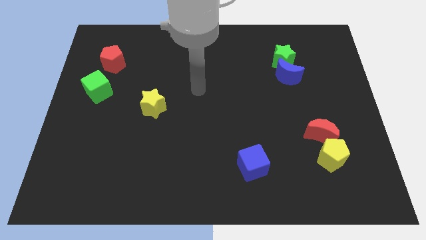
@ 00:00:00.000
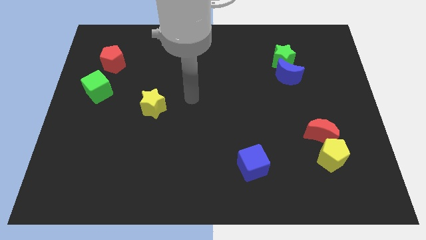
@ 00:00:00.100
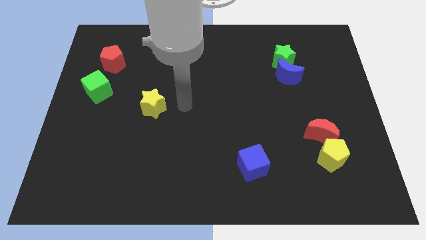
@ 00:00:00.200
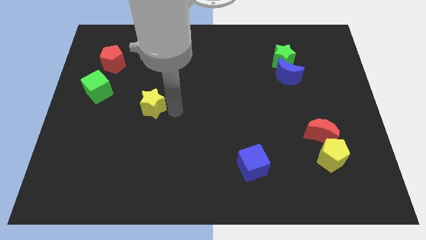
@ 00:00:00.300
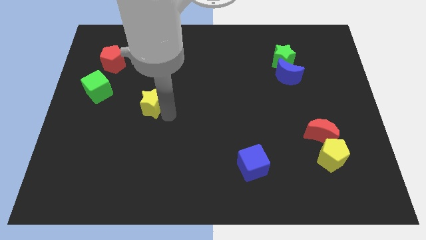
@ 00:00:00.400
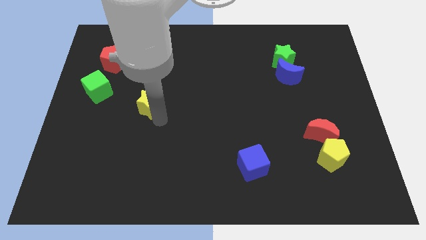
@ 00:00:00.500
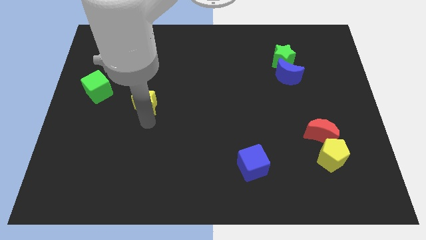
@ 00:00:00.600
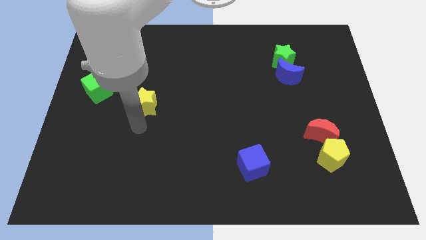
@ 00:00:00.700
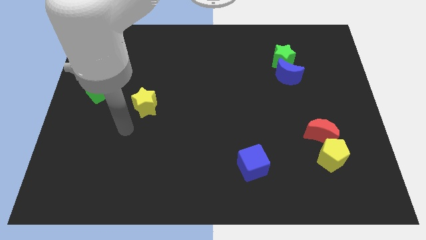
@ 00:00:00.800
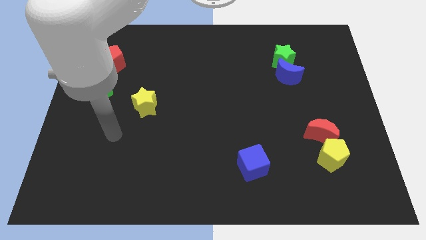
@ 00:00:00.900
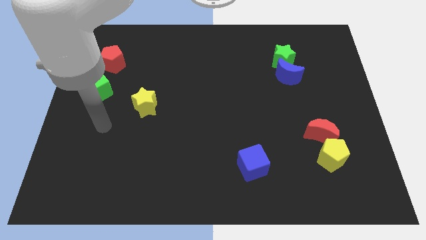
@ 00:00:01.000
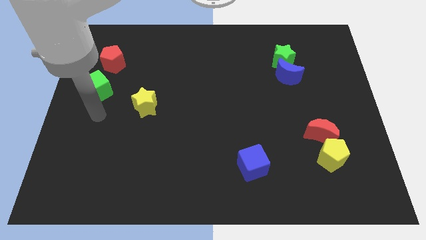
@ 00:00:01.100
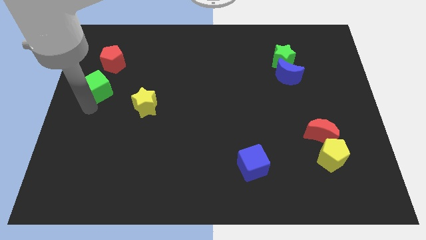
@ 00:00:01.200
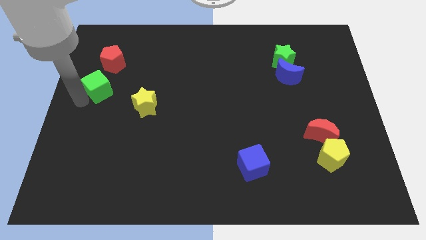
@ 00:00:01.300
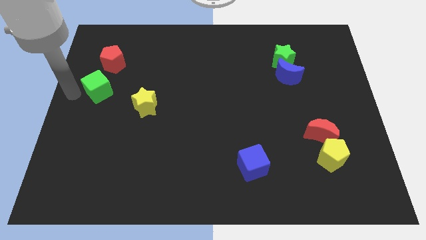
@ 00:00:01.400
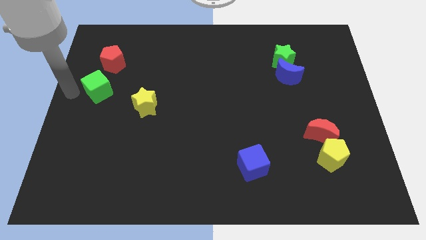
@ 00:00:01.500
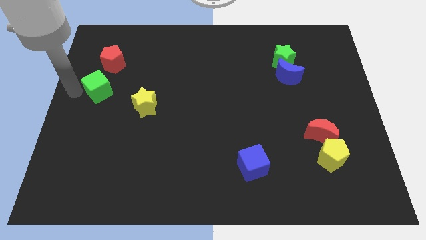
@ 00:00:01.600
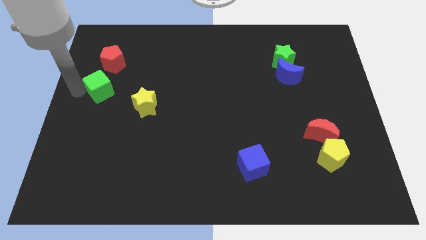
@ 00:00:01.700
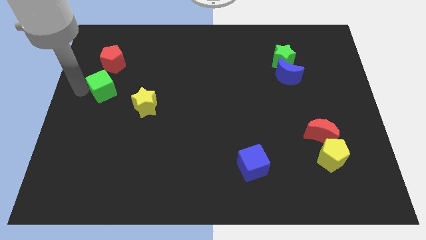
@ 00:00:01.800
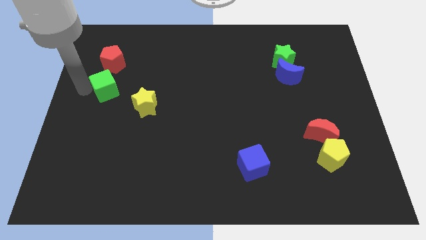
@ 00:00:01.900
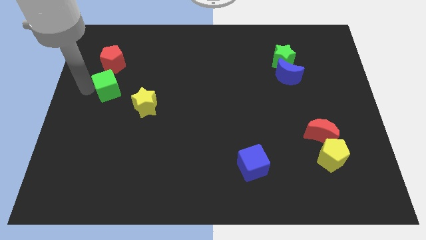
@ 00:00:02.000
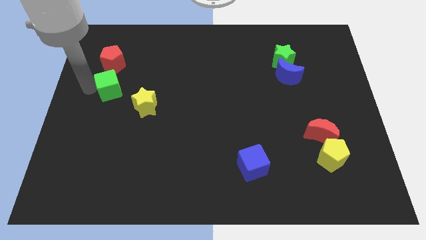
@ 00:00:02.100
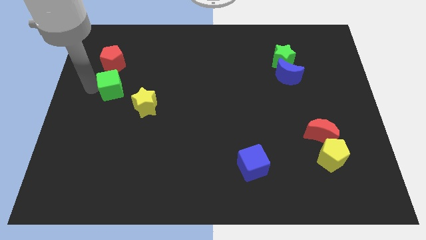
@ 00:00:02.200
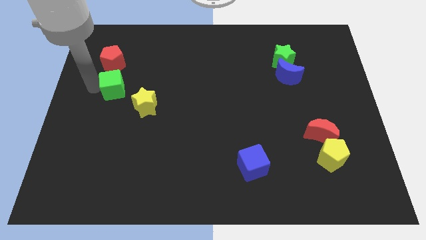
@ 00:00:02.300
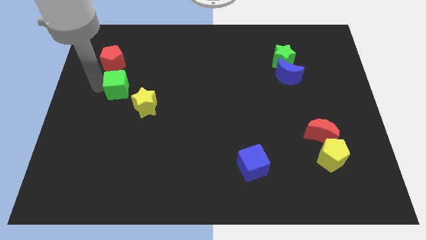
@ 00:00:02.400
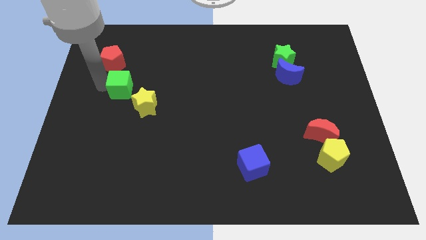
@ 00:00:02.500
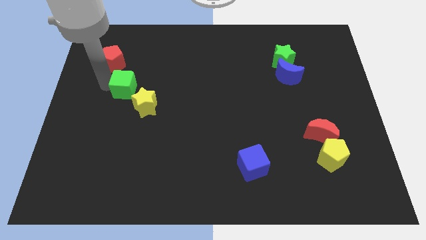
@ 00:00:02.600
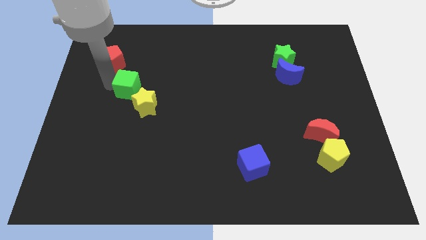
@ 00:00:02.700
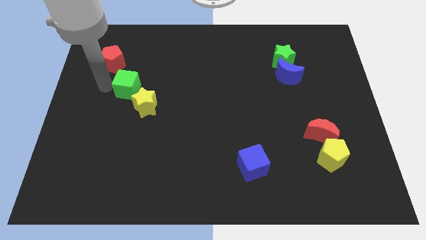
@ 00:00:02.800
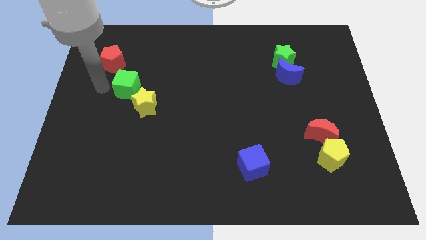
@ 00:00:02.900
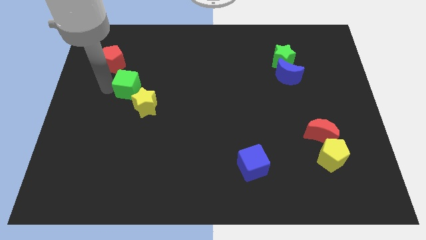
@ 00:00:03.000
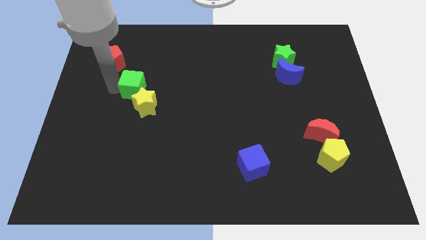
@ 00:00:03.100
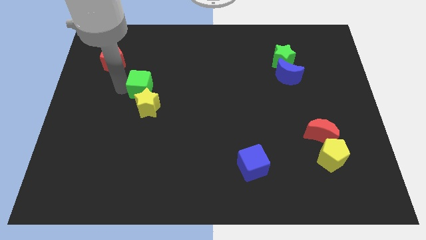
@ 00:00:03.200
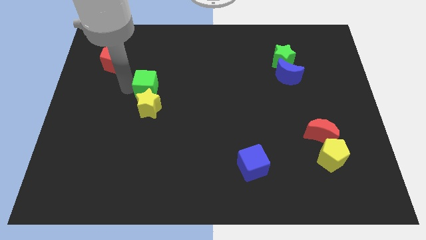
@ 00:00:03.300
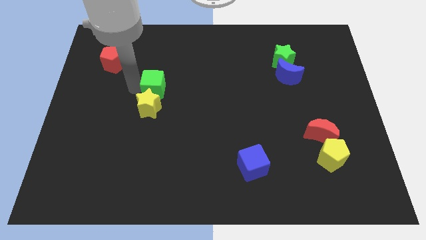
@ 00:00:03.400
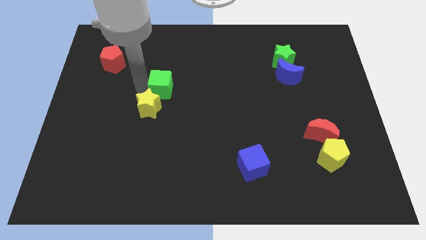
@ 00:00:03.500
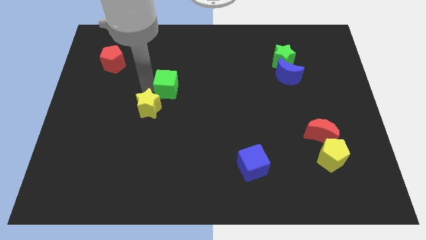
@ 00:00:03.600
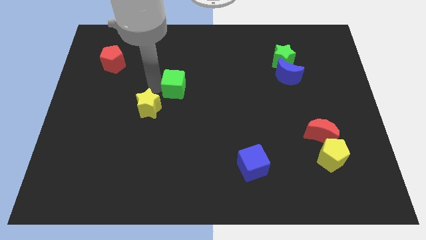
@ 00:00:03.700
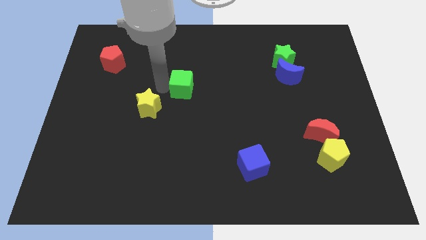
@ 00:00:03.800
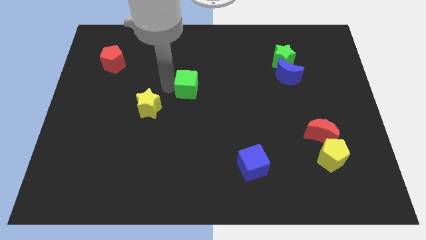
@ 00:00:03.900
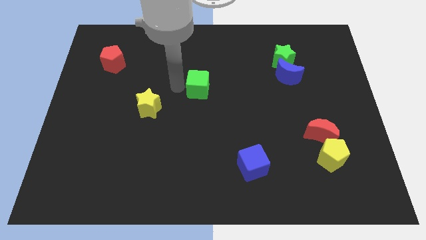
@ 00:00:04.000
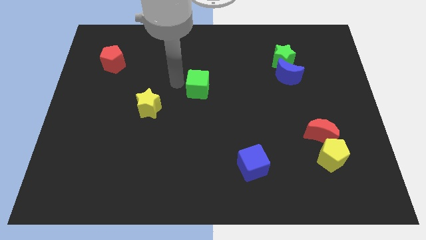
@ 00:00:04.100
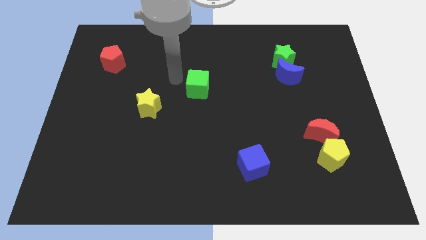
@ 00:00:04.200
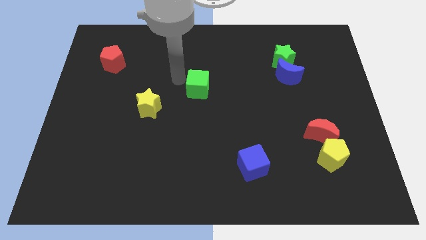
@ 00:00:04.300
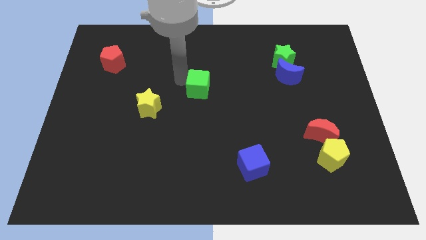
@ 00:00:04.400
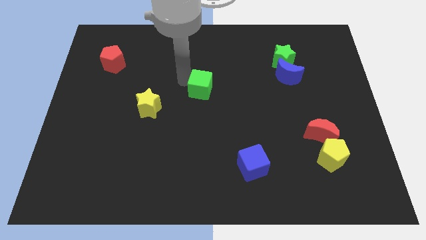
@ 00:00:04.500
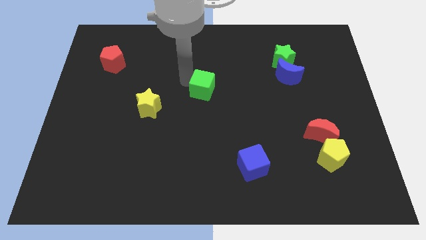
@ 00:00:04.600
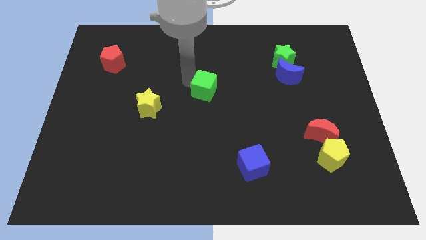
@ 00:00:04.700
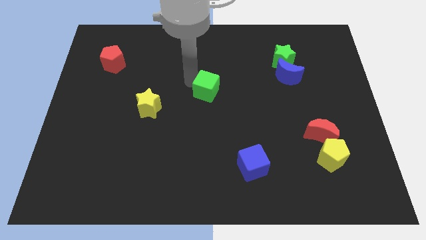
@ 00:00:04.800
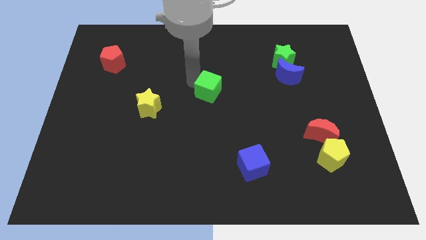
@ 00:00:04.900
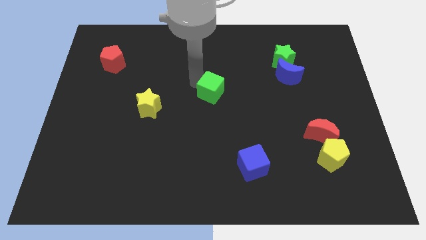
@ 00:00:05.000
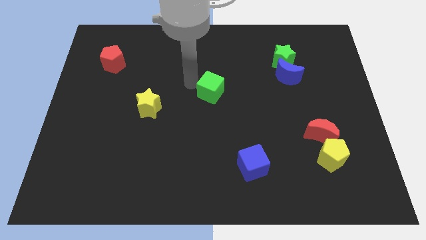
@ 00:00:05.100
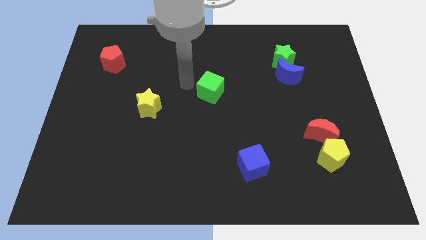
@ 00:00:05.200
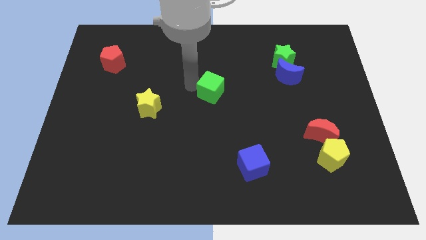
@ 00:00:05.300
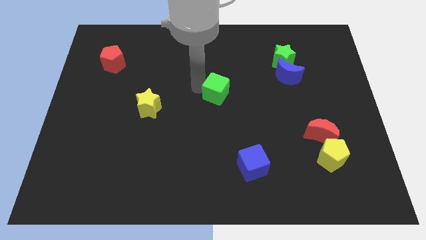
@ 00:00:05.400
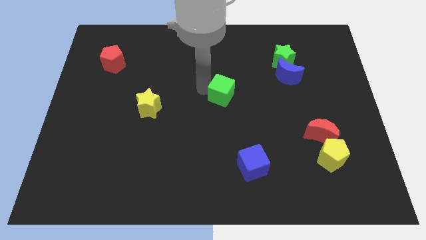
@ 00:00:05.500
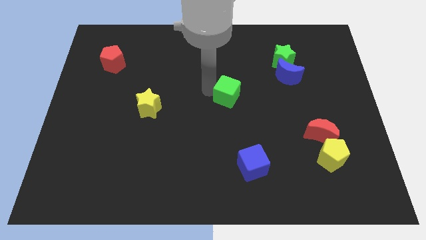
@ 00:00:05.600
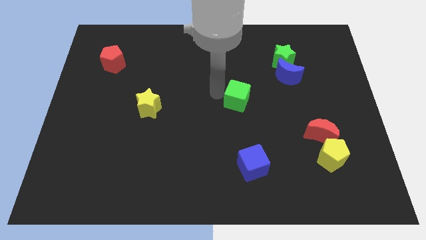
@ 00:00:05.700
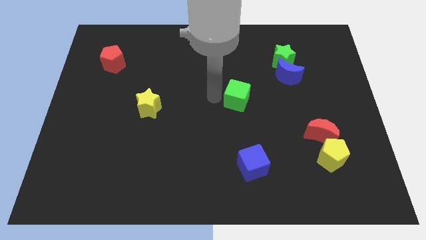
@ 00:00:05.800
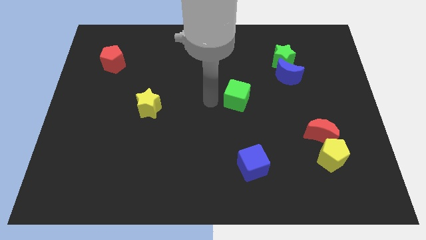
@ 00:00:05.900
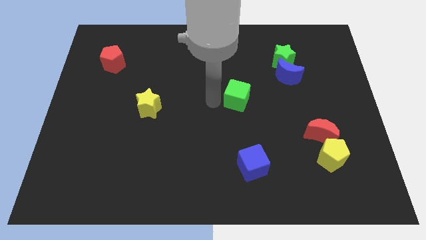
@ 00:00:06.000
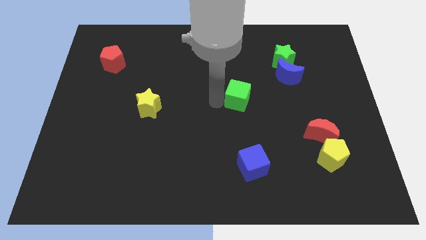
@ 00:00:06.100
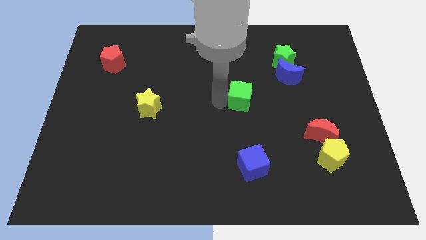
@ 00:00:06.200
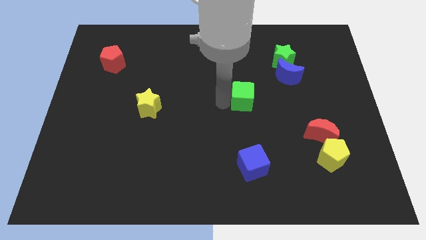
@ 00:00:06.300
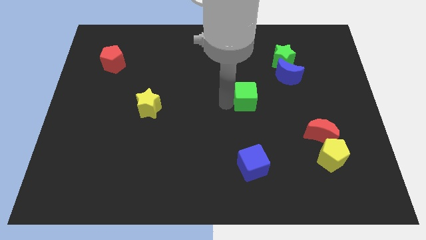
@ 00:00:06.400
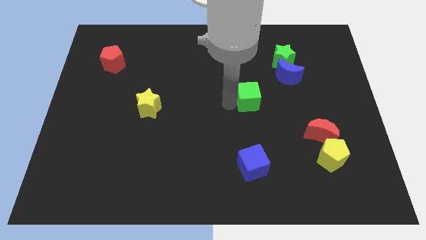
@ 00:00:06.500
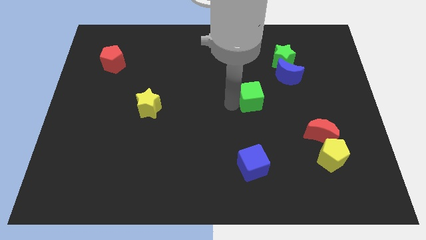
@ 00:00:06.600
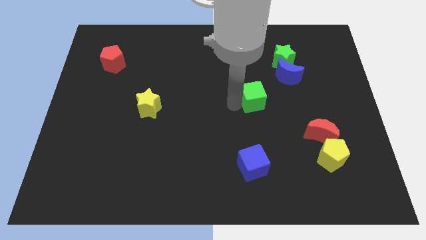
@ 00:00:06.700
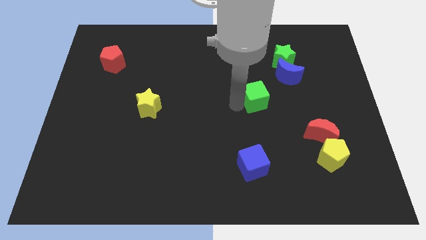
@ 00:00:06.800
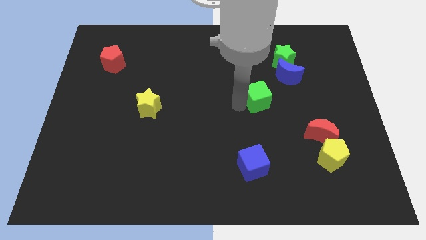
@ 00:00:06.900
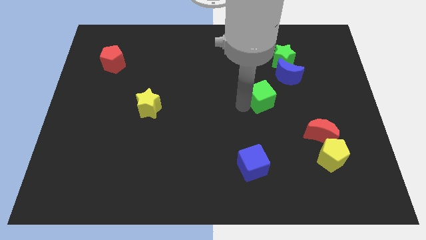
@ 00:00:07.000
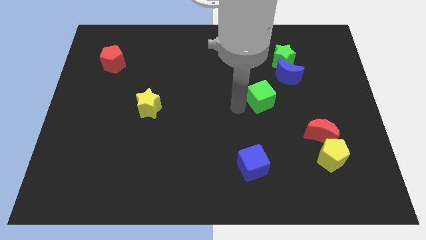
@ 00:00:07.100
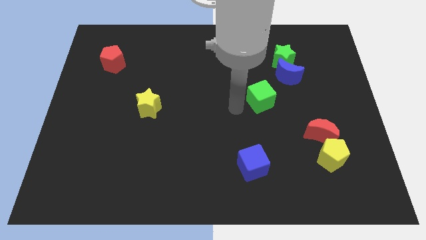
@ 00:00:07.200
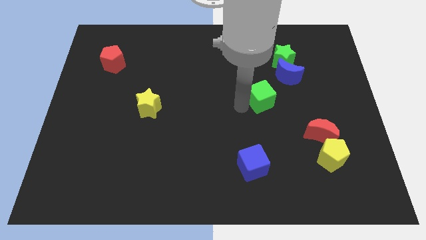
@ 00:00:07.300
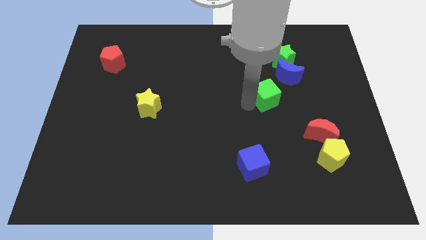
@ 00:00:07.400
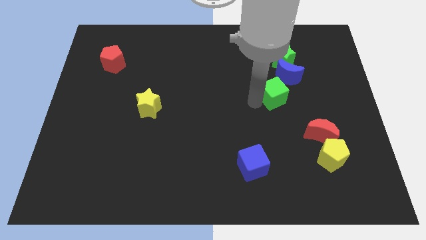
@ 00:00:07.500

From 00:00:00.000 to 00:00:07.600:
put the green cube to the bottom side of the green star
